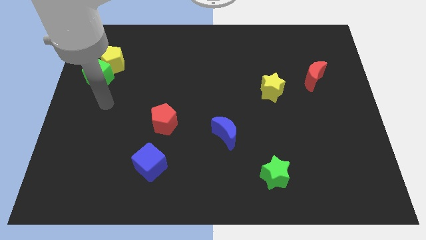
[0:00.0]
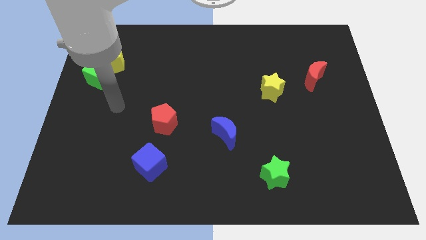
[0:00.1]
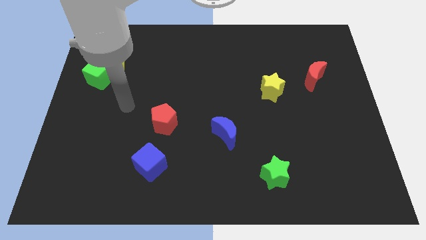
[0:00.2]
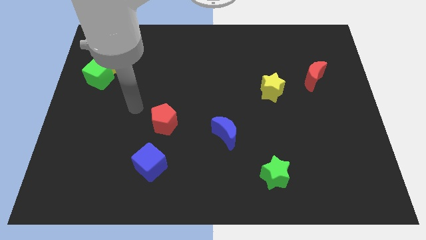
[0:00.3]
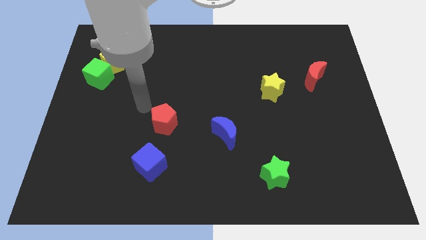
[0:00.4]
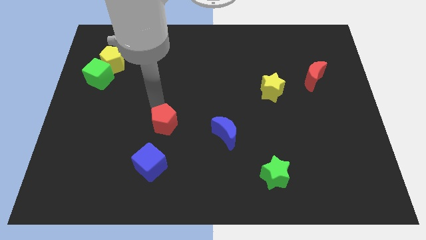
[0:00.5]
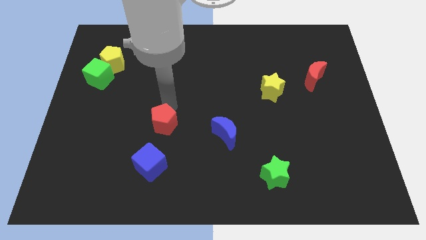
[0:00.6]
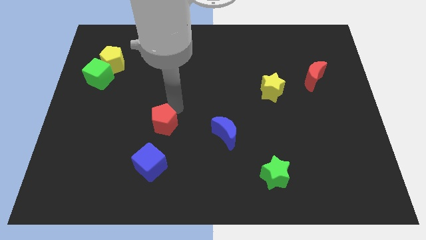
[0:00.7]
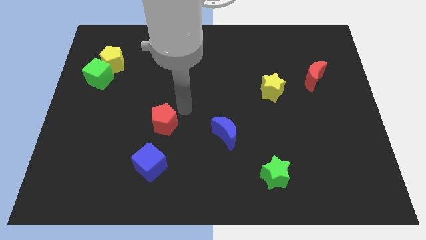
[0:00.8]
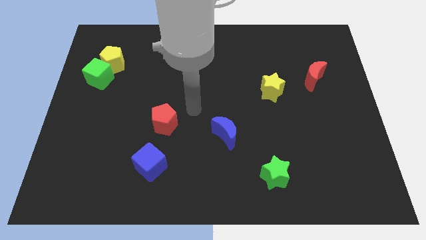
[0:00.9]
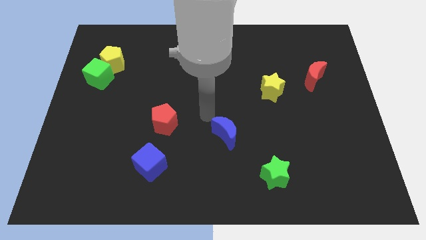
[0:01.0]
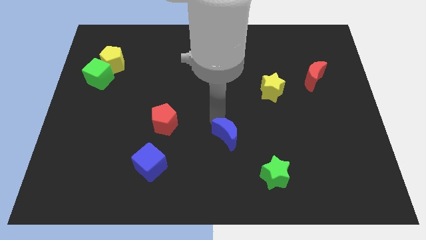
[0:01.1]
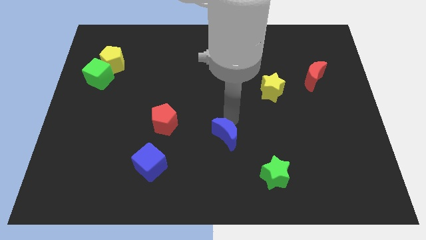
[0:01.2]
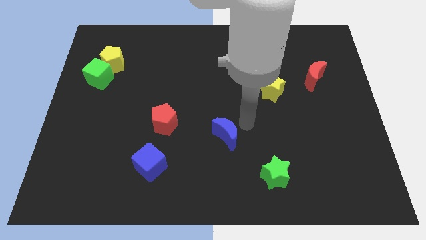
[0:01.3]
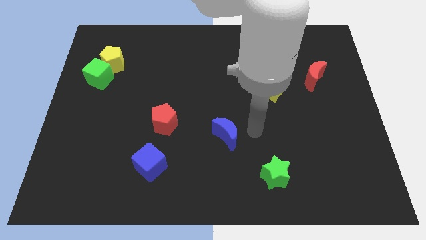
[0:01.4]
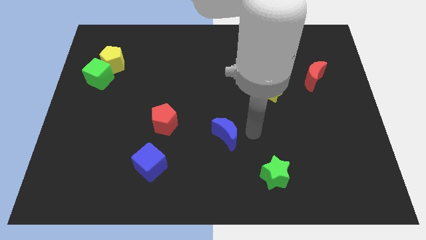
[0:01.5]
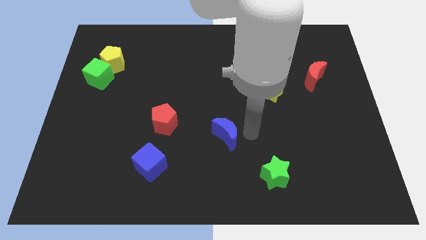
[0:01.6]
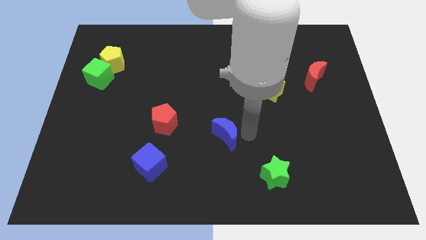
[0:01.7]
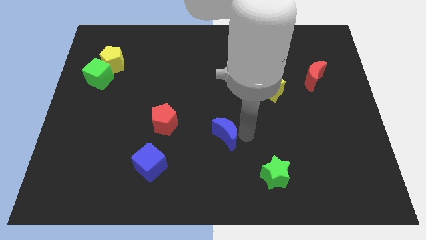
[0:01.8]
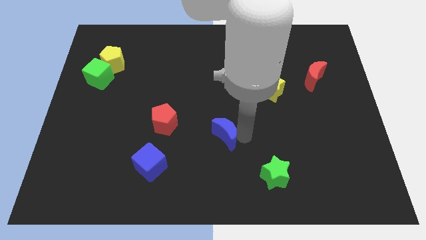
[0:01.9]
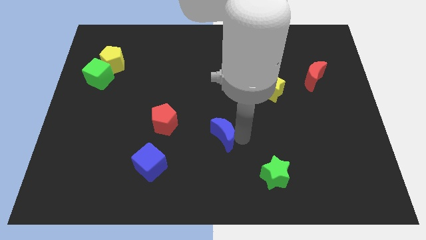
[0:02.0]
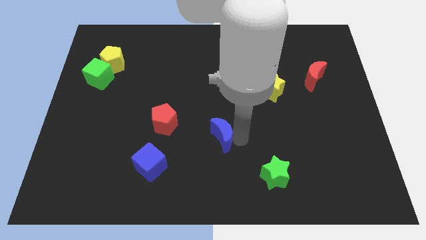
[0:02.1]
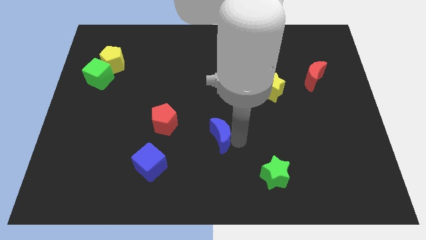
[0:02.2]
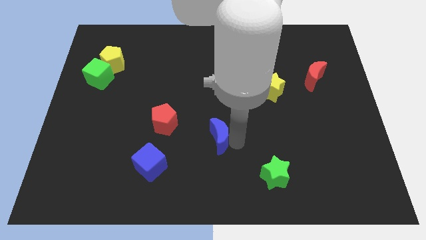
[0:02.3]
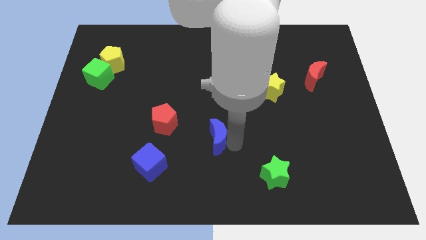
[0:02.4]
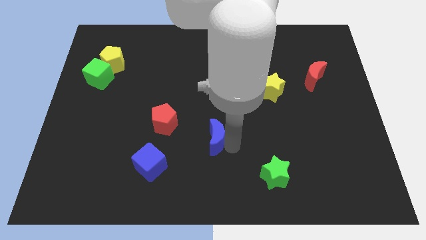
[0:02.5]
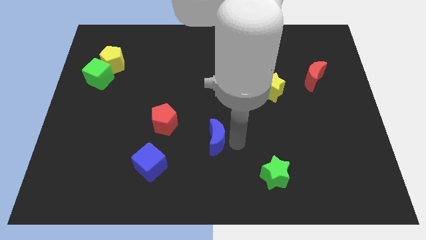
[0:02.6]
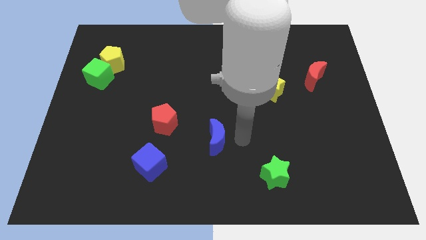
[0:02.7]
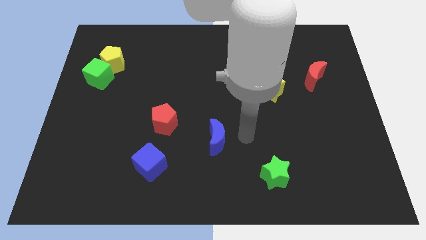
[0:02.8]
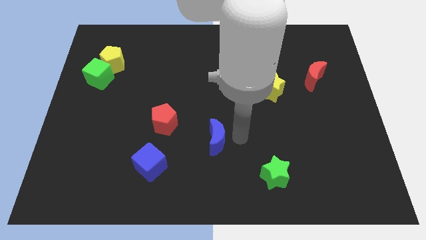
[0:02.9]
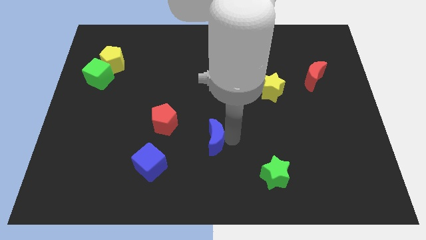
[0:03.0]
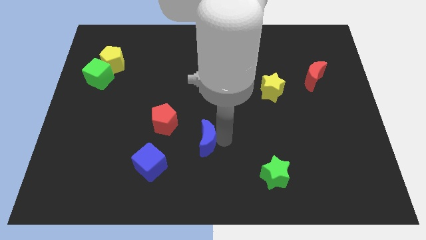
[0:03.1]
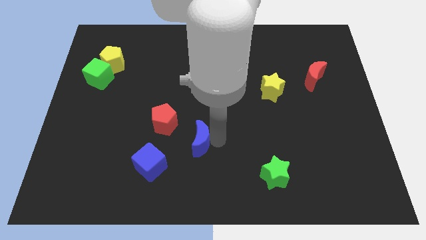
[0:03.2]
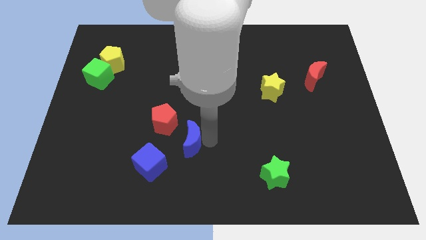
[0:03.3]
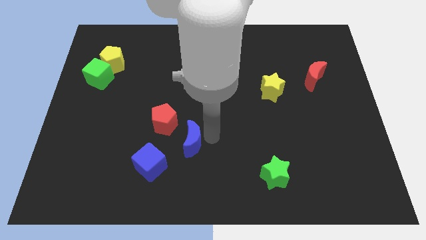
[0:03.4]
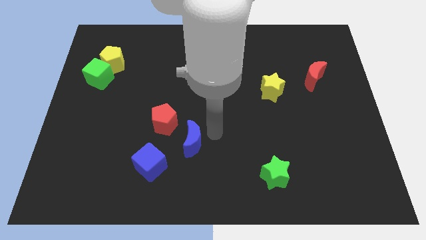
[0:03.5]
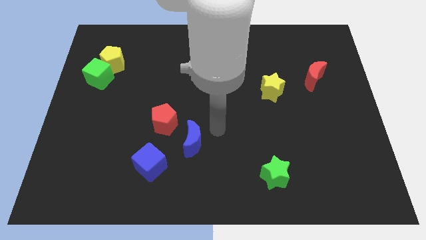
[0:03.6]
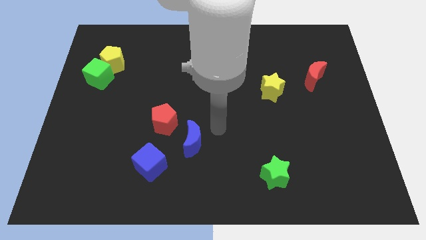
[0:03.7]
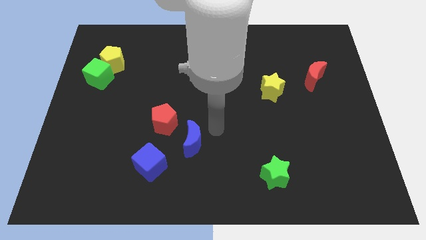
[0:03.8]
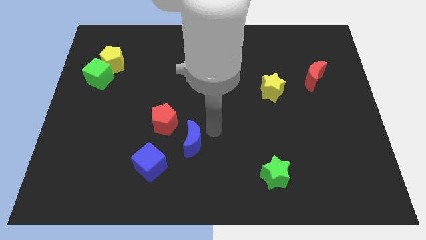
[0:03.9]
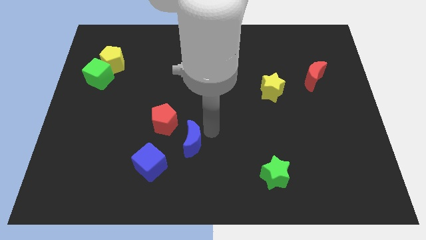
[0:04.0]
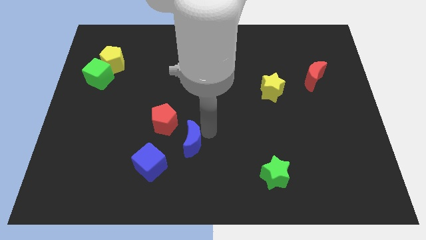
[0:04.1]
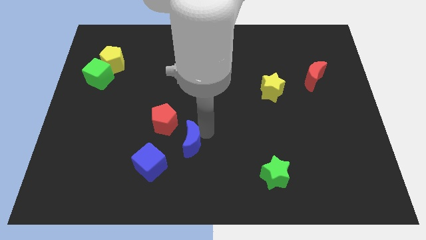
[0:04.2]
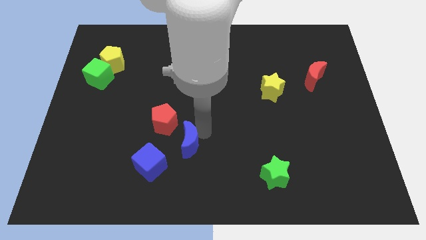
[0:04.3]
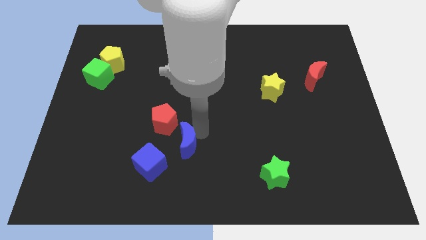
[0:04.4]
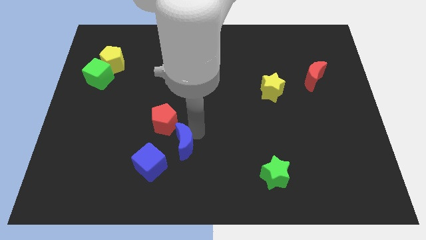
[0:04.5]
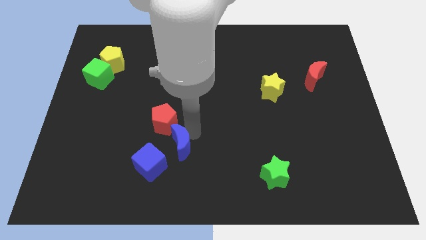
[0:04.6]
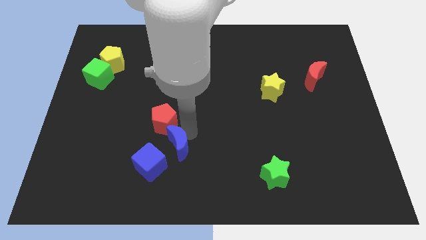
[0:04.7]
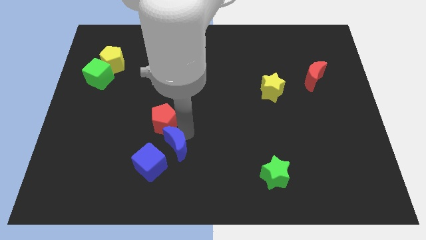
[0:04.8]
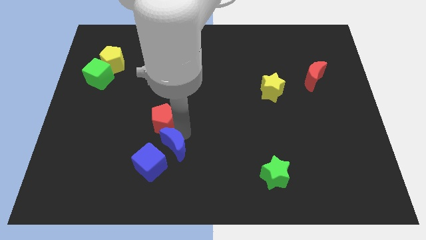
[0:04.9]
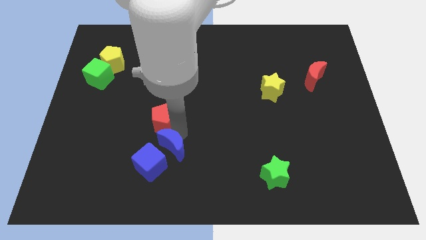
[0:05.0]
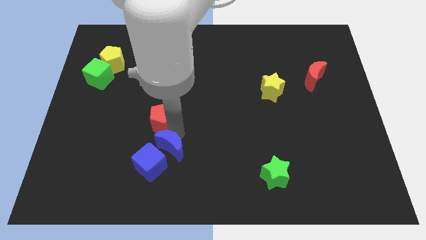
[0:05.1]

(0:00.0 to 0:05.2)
push the blue moon to the blue cube
